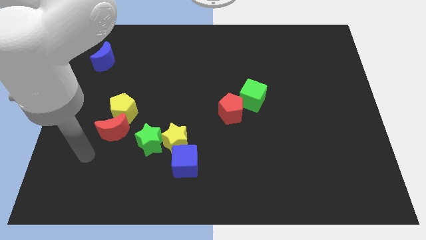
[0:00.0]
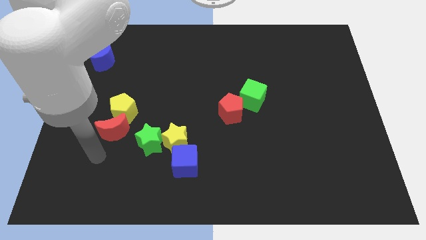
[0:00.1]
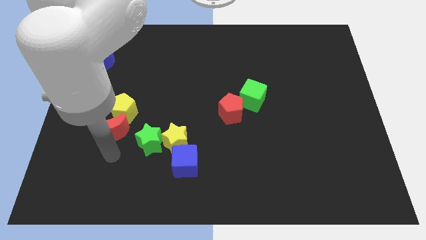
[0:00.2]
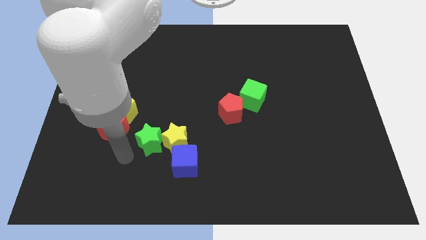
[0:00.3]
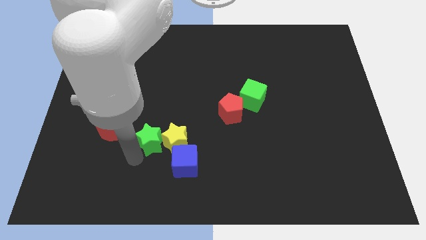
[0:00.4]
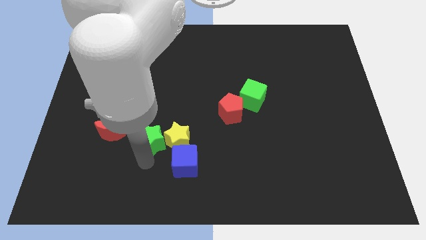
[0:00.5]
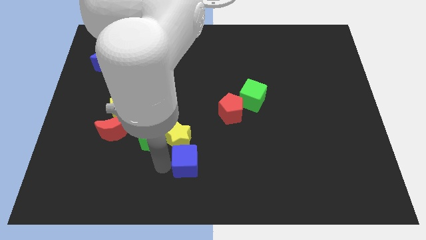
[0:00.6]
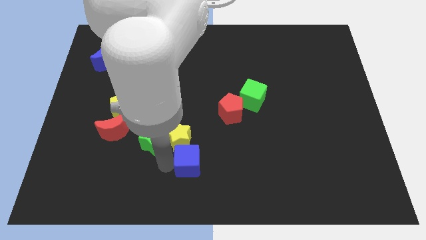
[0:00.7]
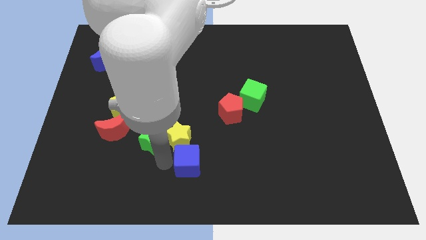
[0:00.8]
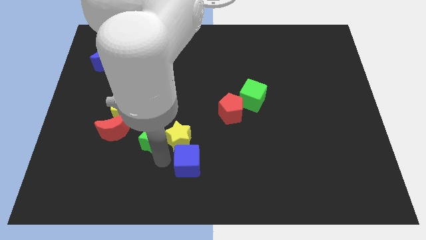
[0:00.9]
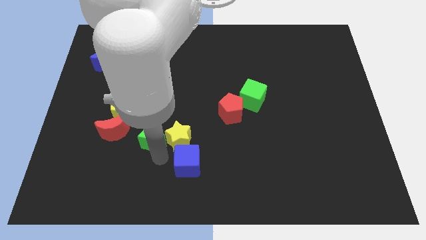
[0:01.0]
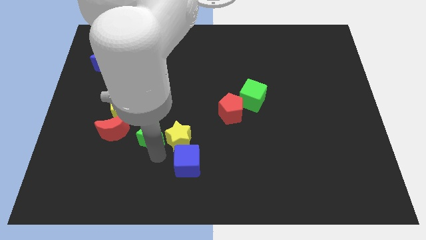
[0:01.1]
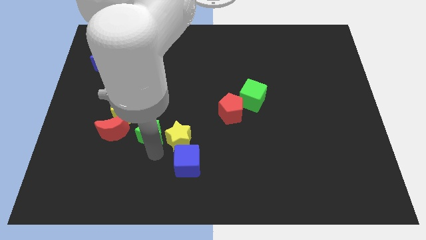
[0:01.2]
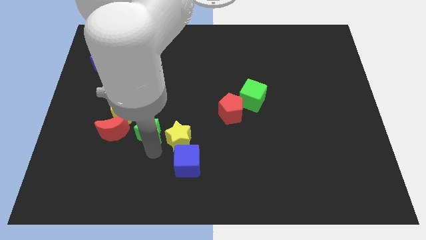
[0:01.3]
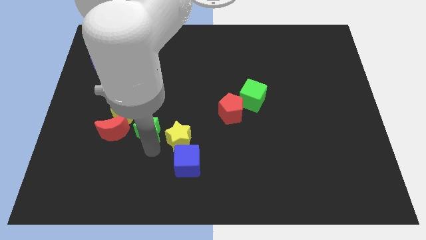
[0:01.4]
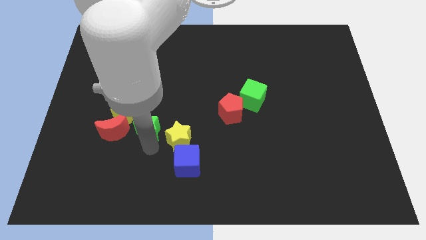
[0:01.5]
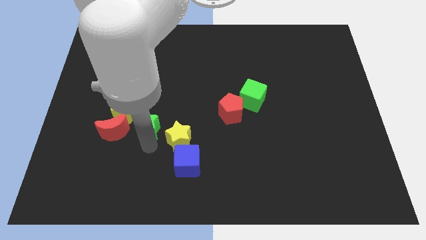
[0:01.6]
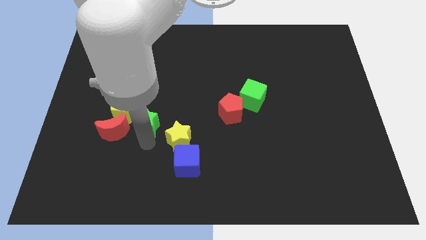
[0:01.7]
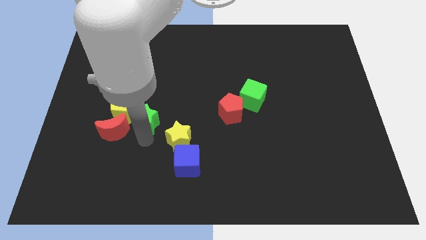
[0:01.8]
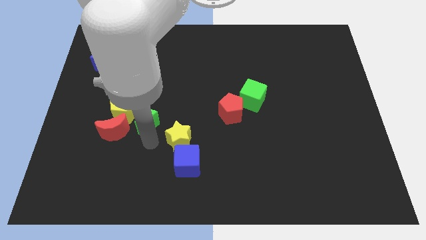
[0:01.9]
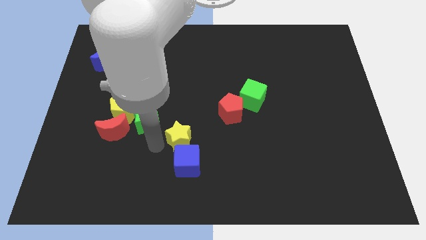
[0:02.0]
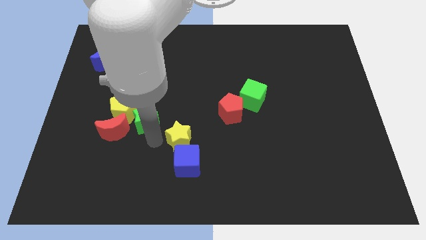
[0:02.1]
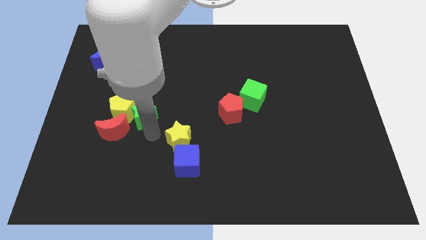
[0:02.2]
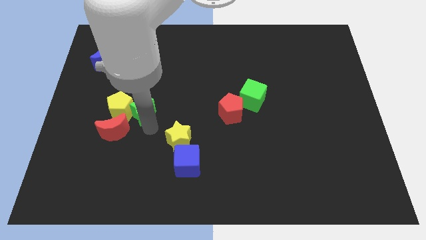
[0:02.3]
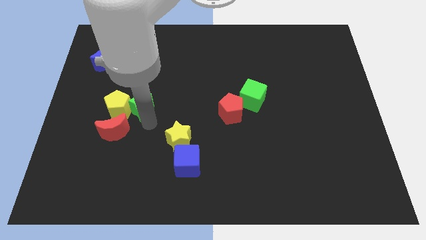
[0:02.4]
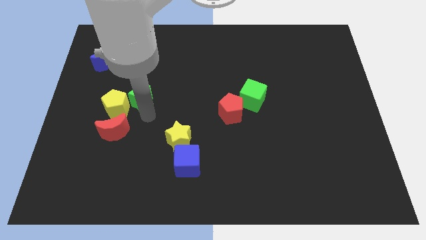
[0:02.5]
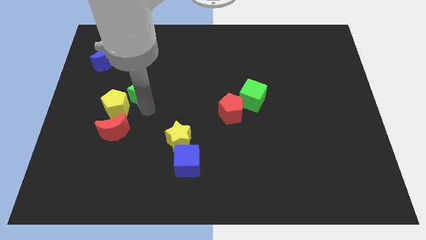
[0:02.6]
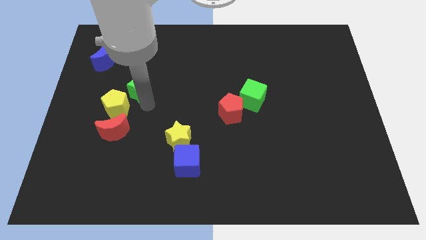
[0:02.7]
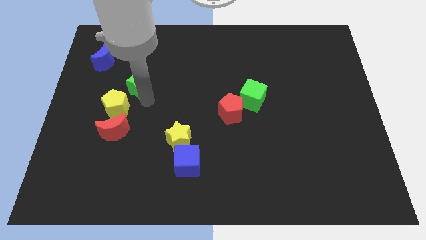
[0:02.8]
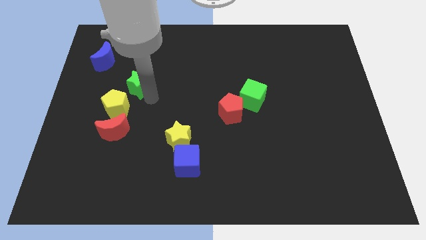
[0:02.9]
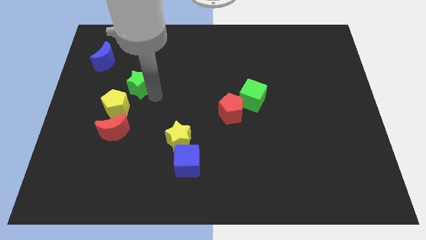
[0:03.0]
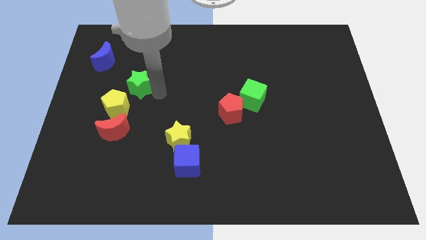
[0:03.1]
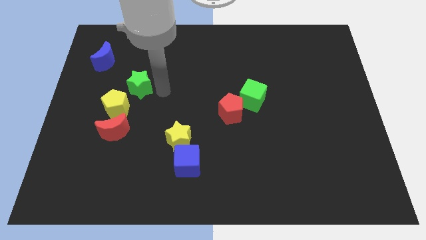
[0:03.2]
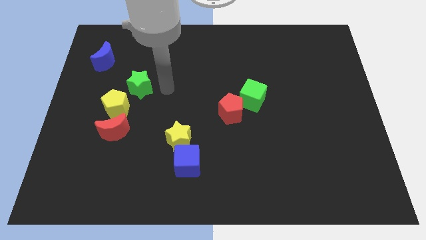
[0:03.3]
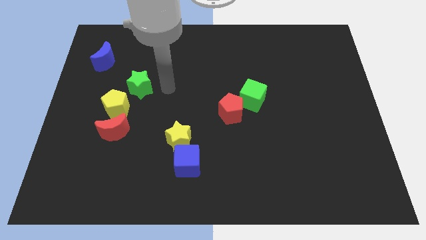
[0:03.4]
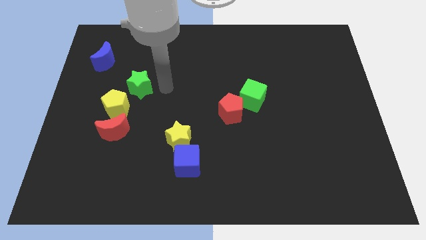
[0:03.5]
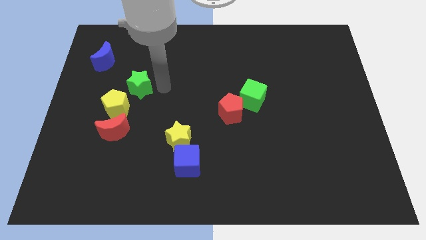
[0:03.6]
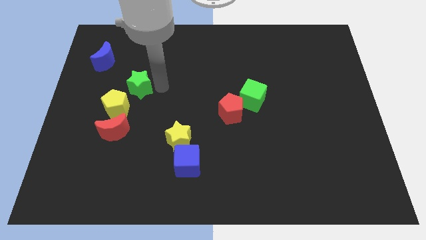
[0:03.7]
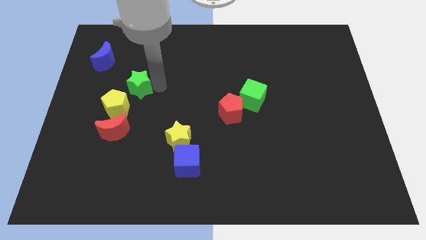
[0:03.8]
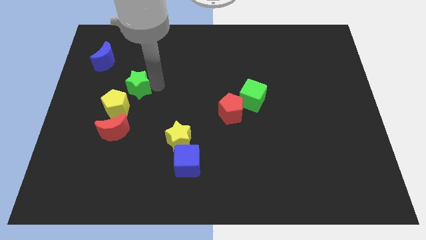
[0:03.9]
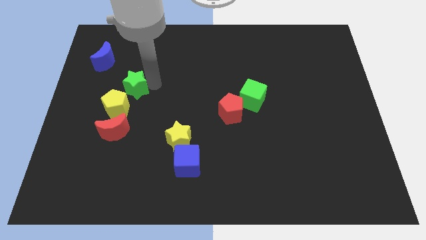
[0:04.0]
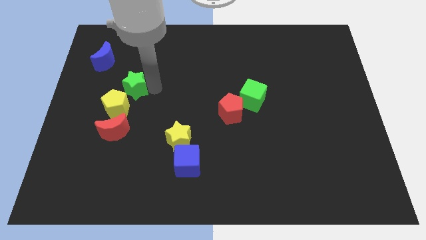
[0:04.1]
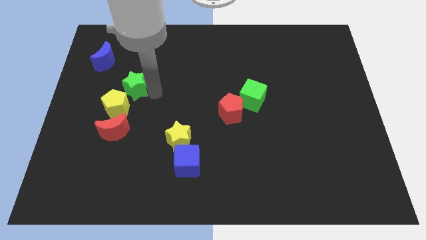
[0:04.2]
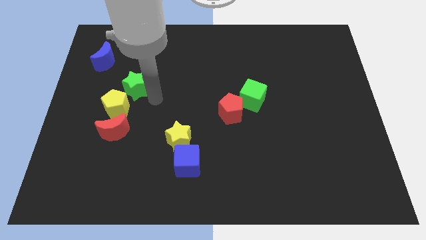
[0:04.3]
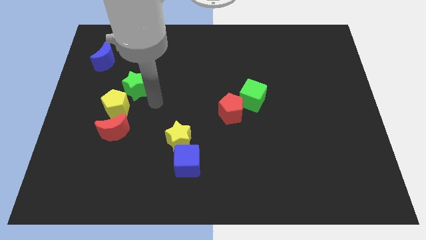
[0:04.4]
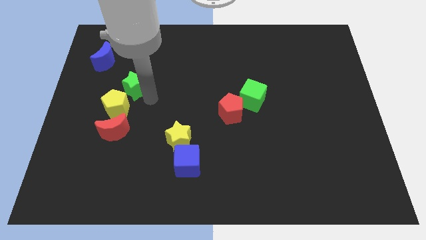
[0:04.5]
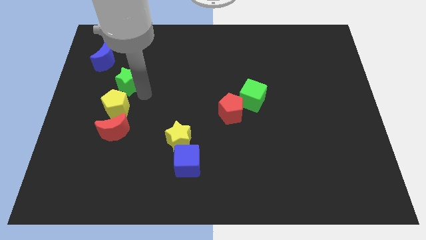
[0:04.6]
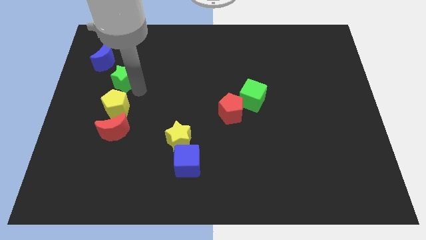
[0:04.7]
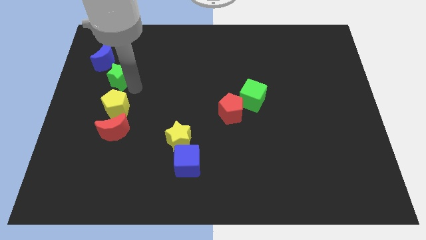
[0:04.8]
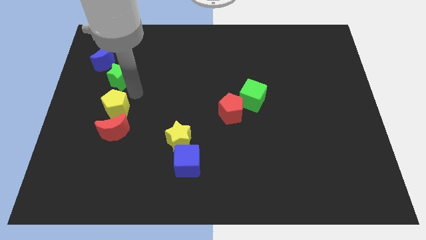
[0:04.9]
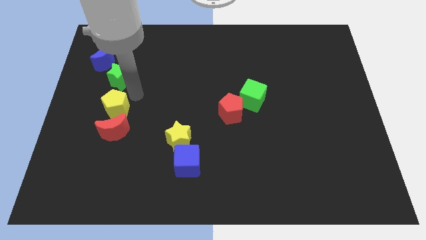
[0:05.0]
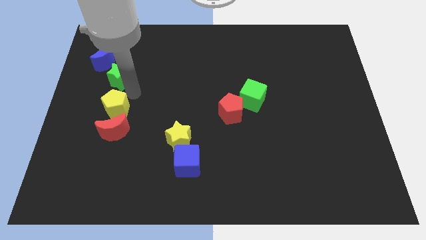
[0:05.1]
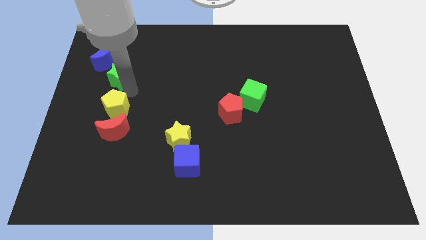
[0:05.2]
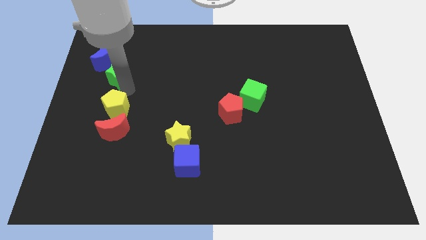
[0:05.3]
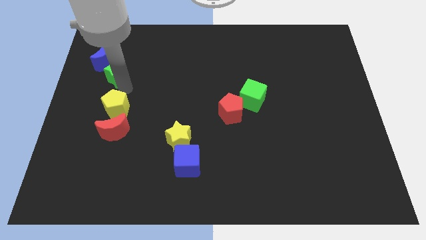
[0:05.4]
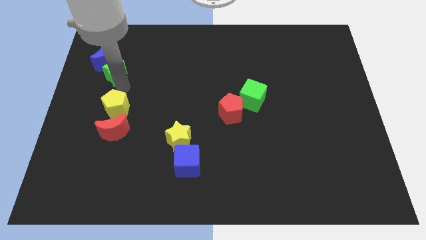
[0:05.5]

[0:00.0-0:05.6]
move the green star next to the blue moon
